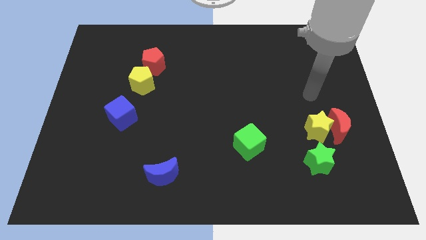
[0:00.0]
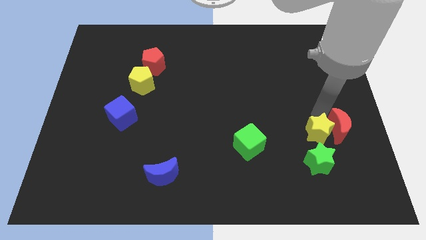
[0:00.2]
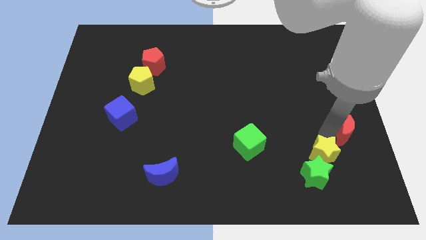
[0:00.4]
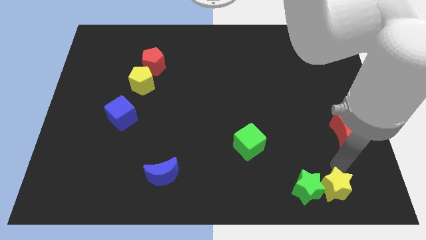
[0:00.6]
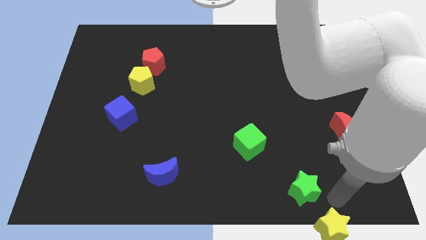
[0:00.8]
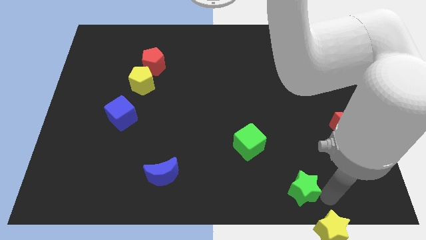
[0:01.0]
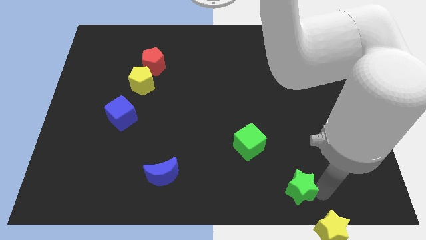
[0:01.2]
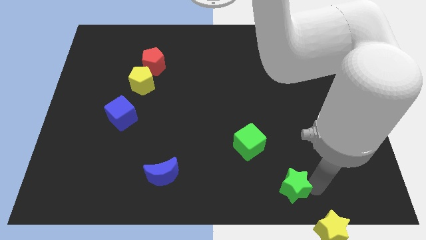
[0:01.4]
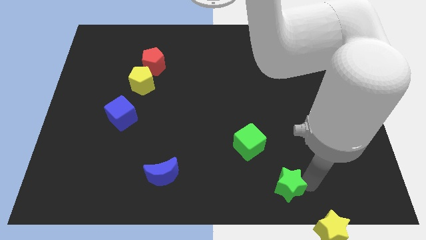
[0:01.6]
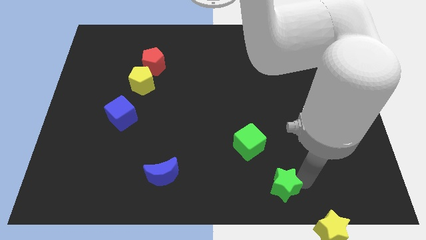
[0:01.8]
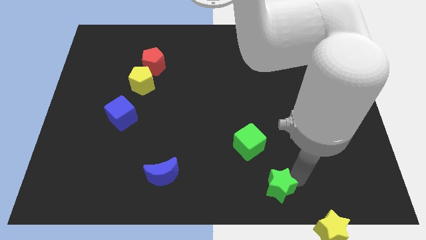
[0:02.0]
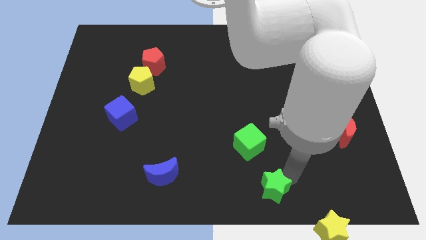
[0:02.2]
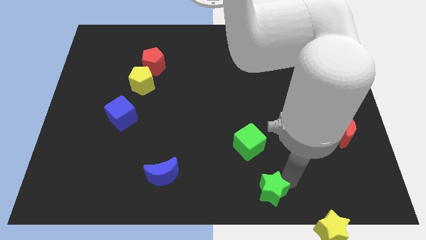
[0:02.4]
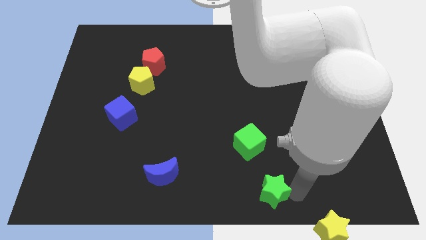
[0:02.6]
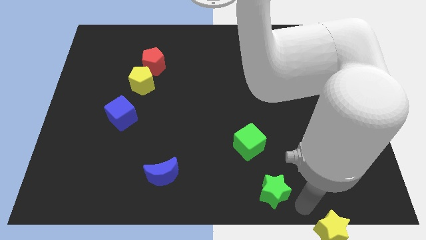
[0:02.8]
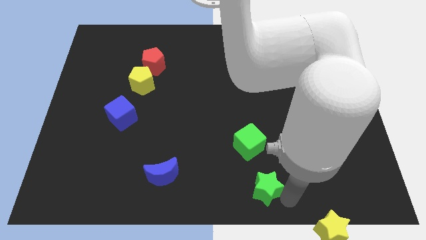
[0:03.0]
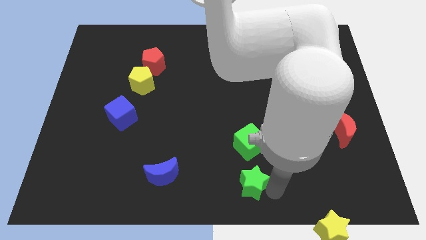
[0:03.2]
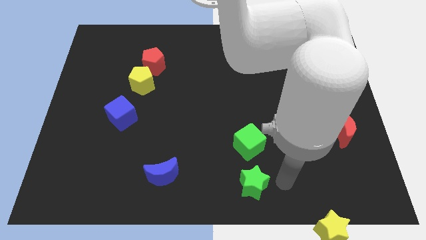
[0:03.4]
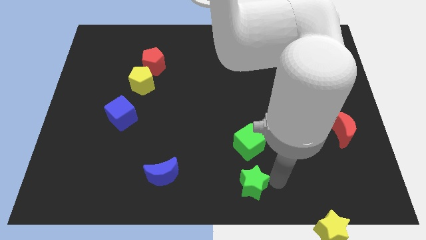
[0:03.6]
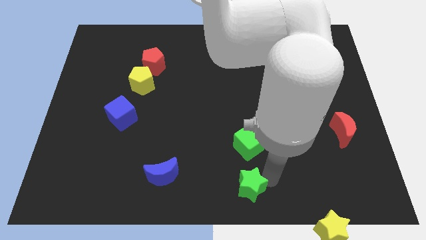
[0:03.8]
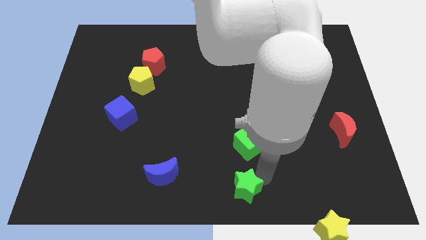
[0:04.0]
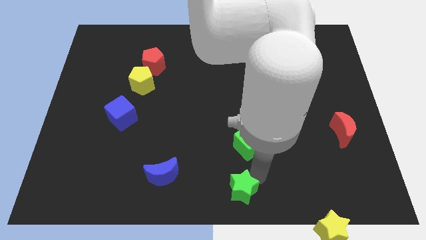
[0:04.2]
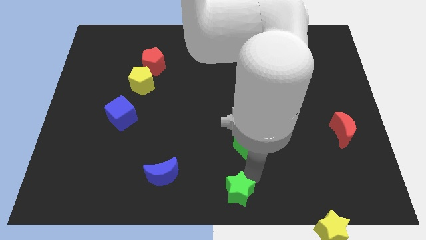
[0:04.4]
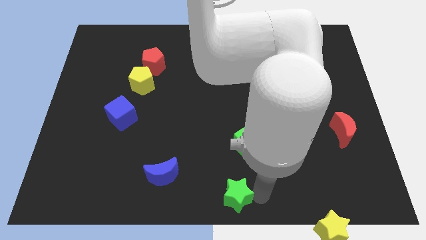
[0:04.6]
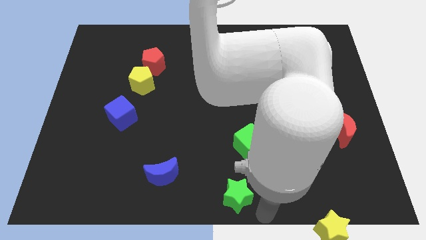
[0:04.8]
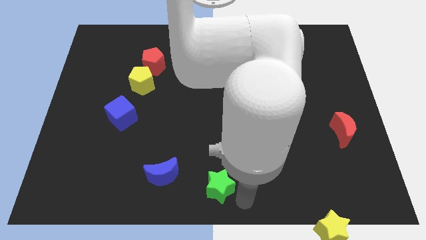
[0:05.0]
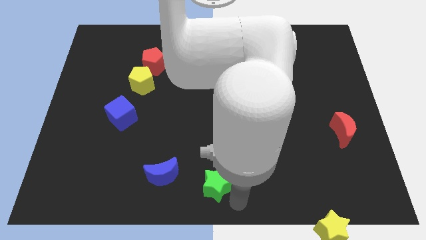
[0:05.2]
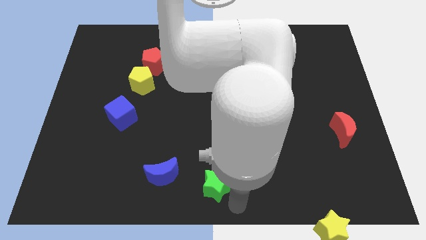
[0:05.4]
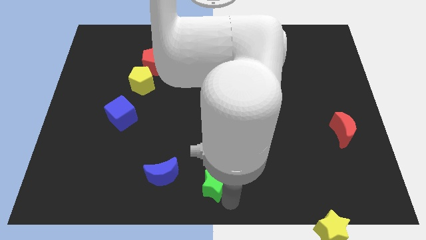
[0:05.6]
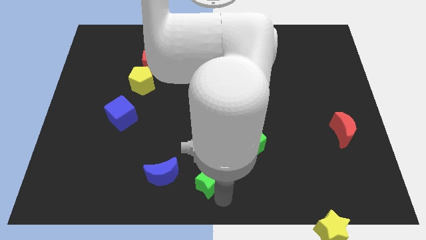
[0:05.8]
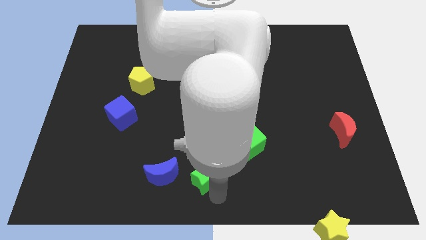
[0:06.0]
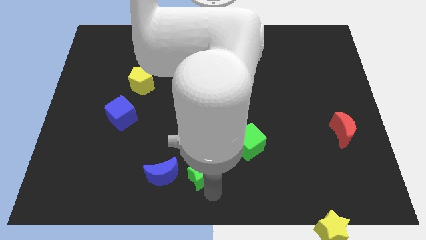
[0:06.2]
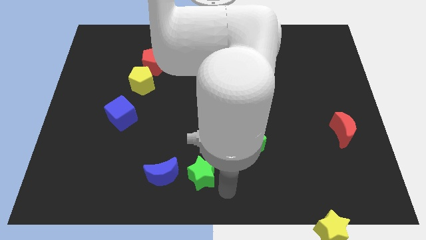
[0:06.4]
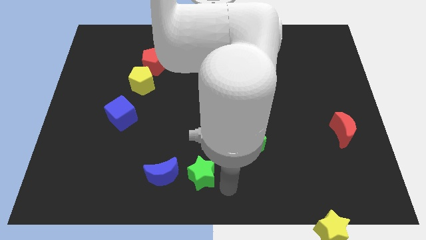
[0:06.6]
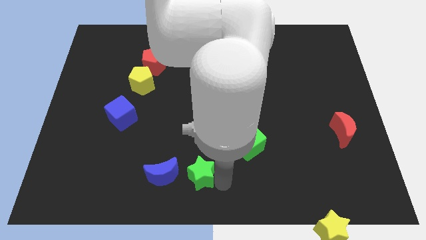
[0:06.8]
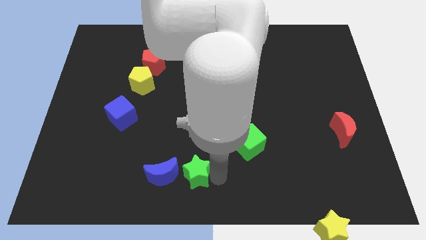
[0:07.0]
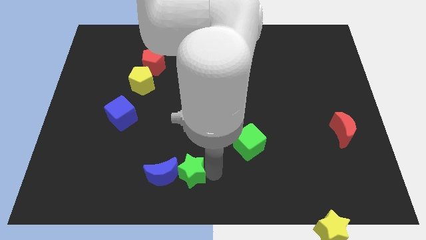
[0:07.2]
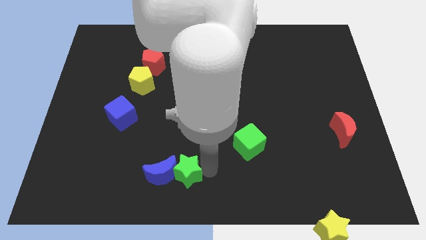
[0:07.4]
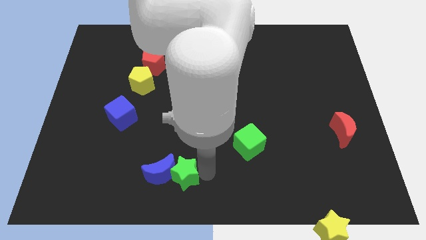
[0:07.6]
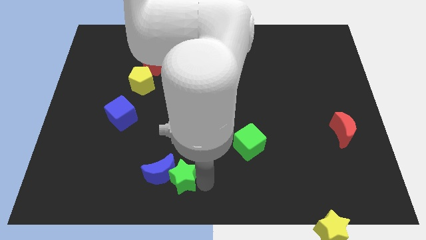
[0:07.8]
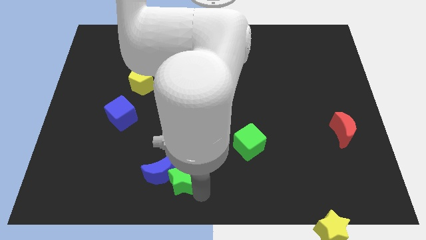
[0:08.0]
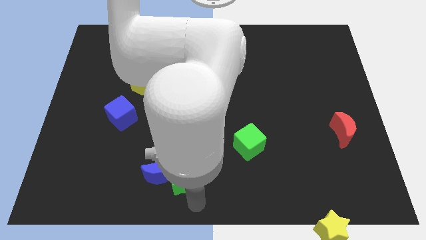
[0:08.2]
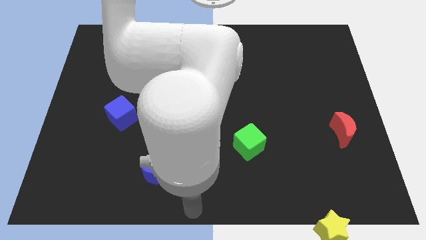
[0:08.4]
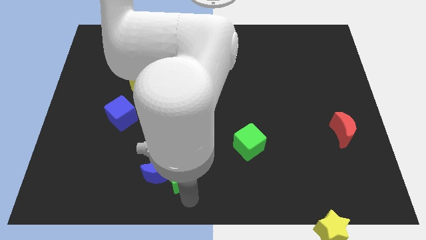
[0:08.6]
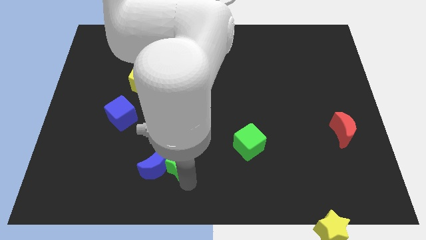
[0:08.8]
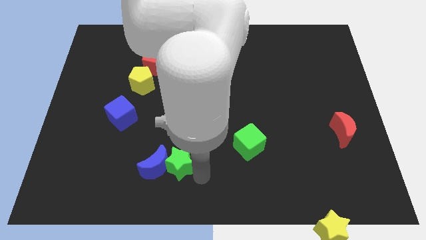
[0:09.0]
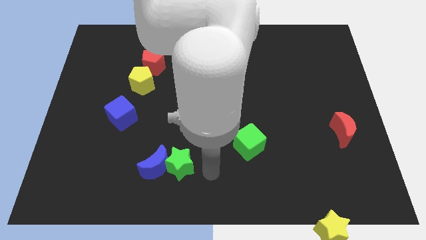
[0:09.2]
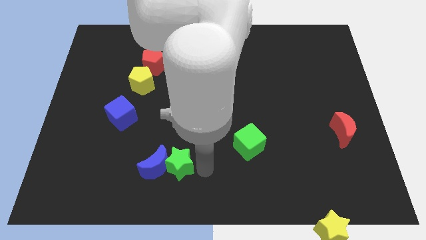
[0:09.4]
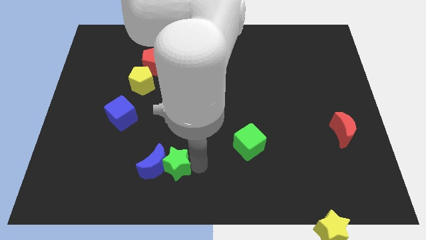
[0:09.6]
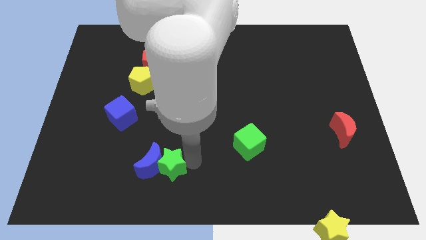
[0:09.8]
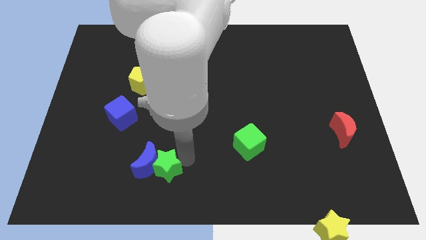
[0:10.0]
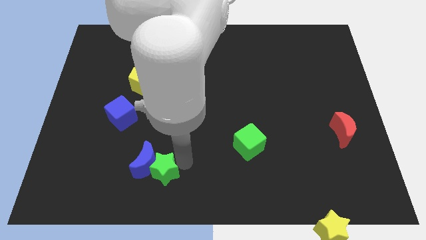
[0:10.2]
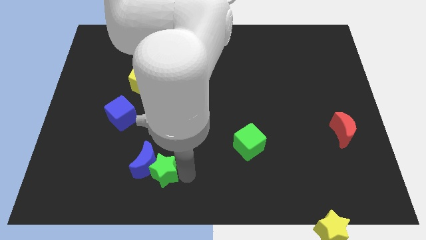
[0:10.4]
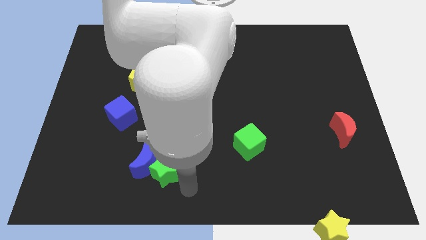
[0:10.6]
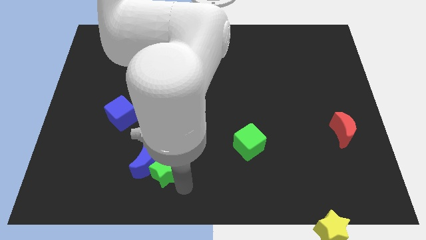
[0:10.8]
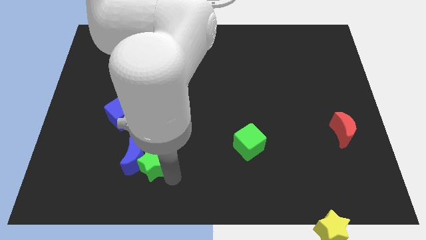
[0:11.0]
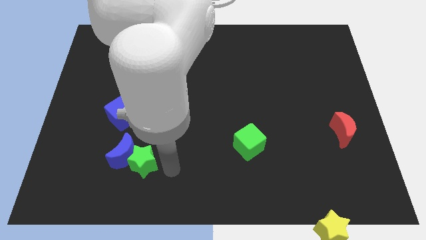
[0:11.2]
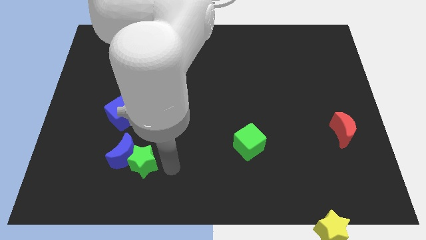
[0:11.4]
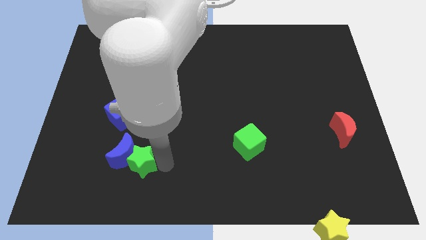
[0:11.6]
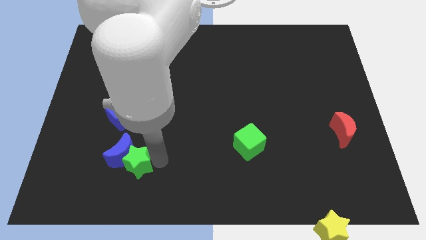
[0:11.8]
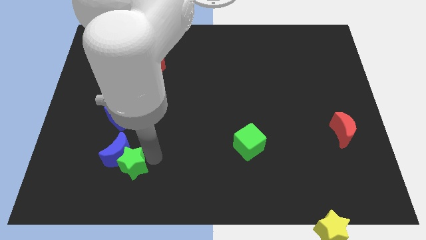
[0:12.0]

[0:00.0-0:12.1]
push the green star to the bottom of the blue cube

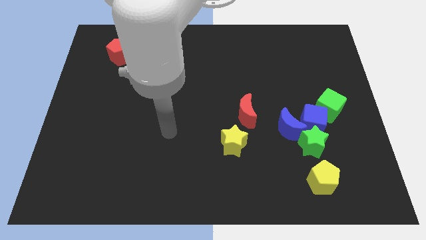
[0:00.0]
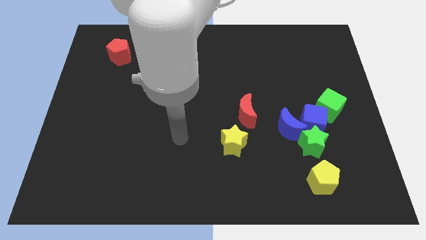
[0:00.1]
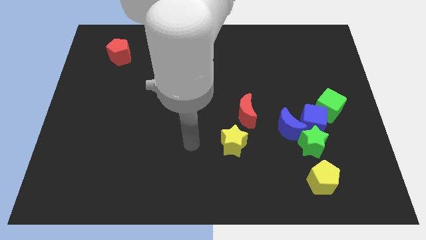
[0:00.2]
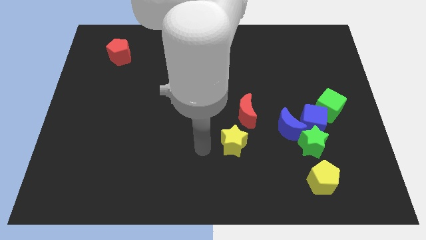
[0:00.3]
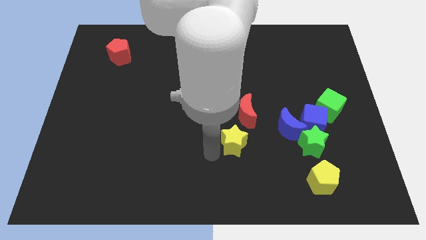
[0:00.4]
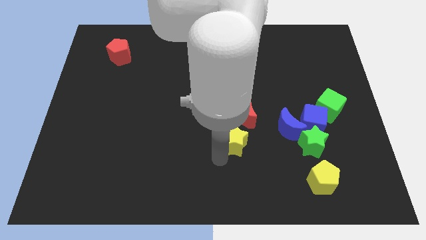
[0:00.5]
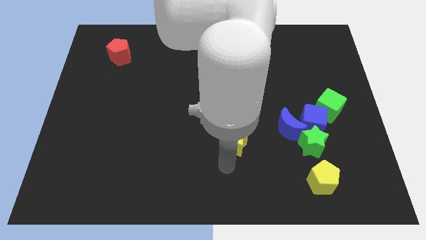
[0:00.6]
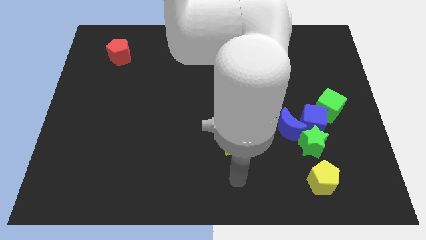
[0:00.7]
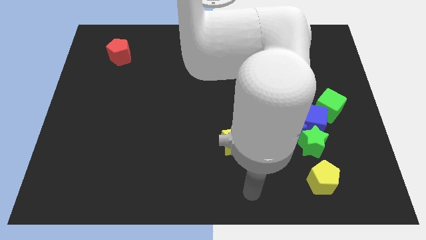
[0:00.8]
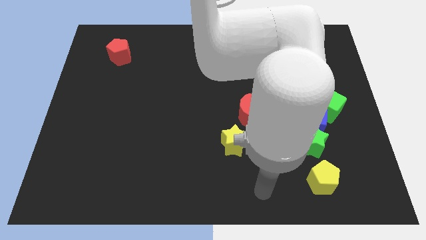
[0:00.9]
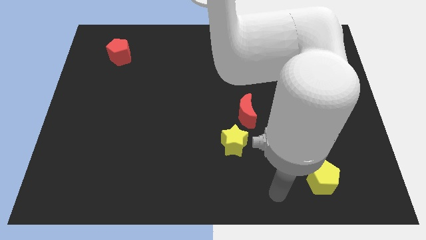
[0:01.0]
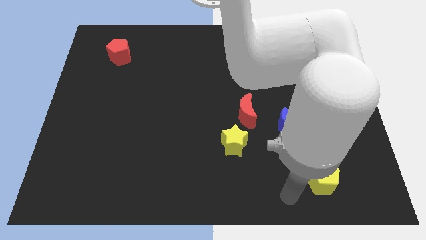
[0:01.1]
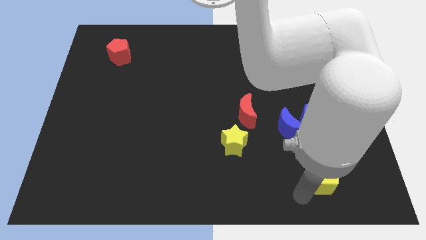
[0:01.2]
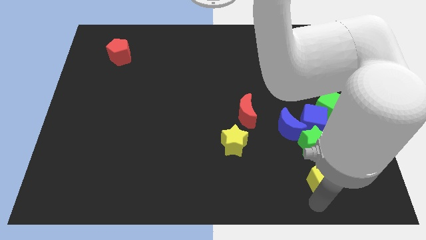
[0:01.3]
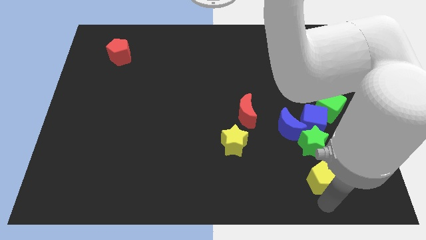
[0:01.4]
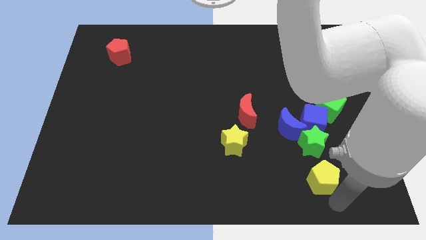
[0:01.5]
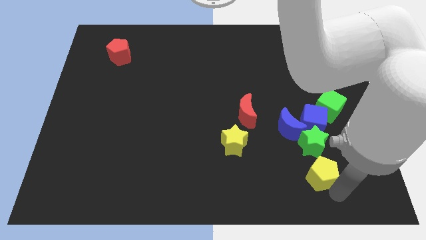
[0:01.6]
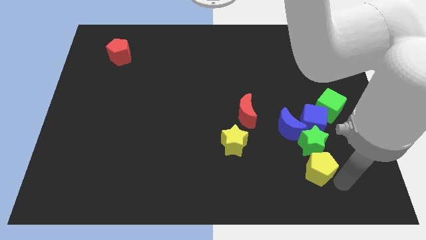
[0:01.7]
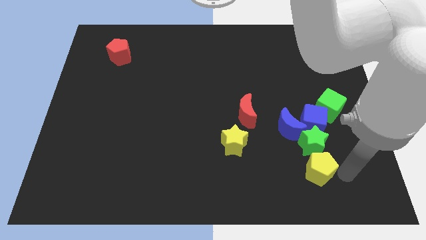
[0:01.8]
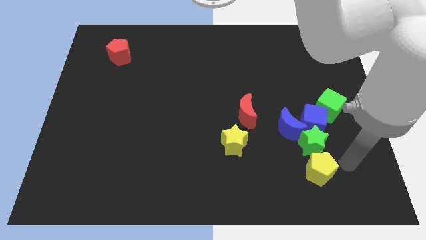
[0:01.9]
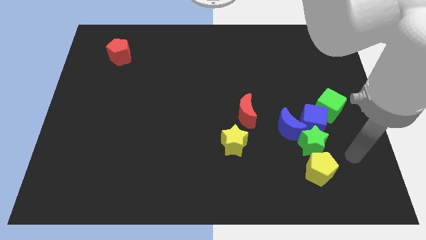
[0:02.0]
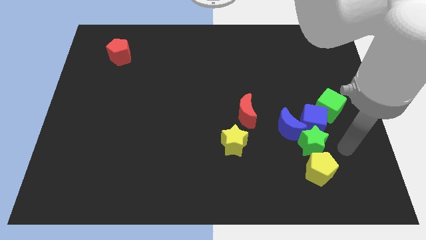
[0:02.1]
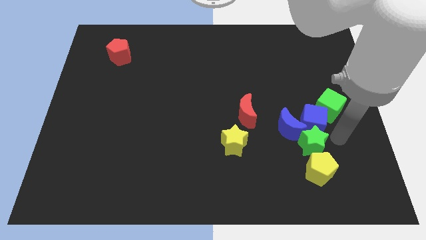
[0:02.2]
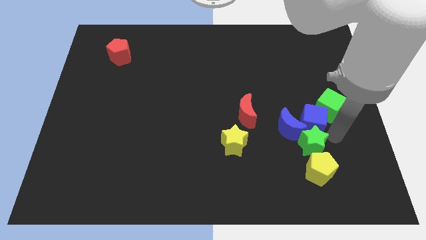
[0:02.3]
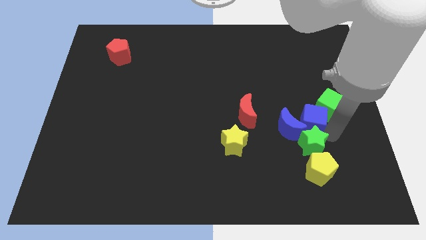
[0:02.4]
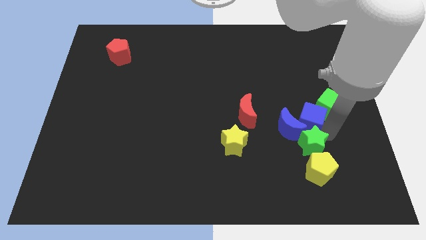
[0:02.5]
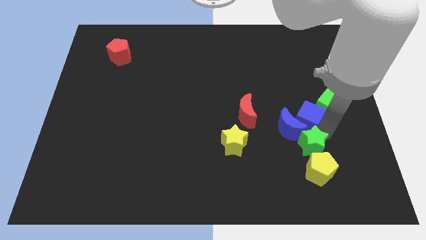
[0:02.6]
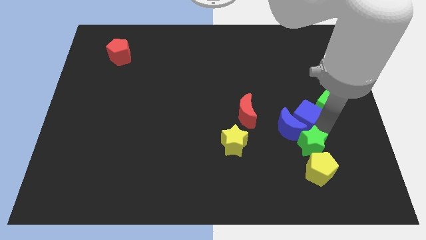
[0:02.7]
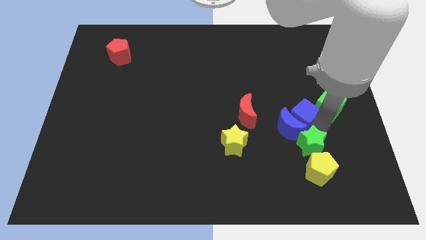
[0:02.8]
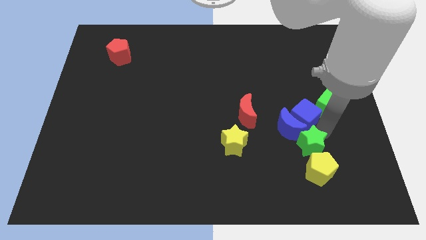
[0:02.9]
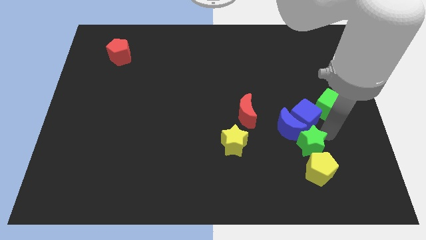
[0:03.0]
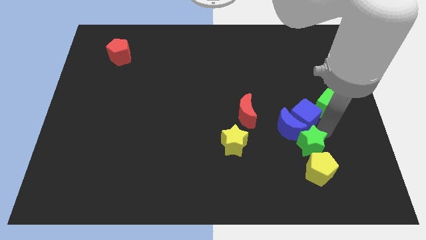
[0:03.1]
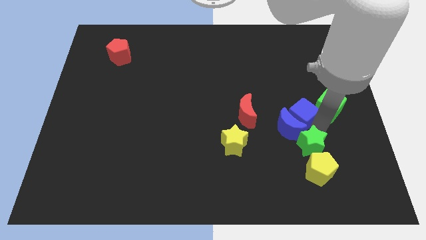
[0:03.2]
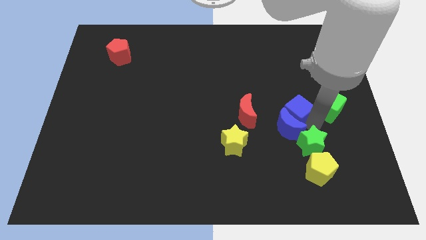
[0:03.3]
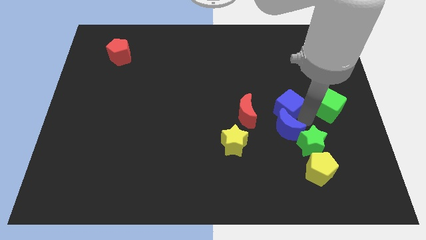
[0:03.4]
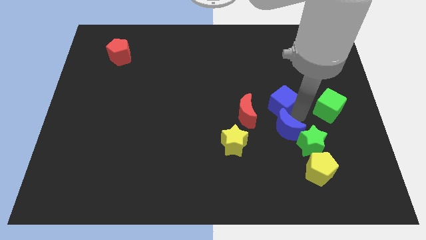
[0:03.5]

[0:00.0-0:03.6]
push the blue cube to the top right side of the red moon
